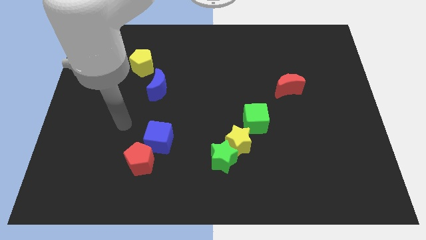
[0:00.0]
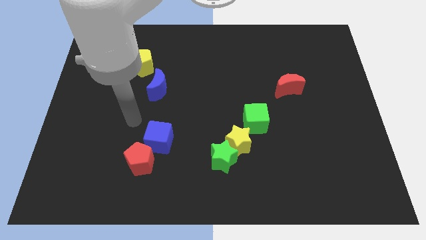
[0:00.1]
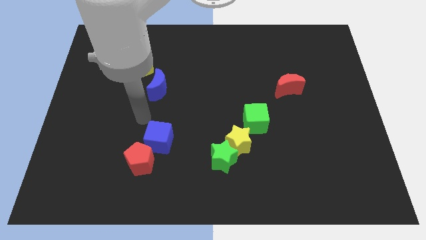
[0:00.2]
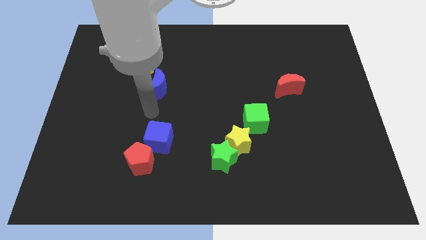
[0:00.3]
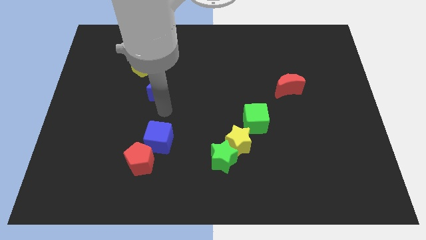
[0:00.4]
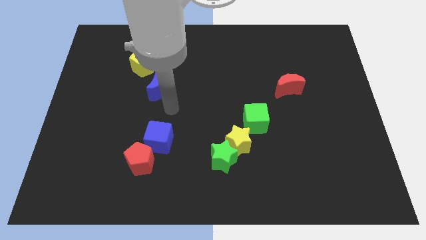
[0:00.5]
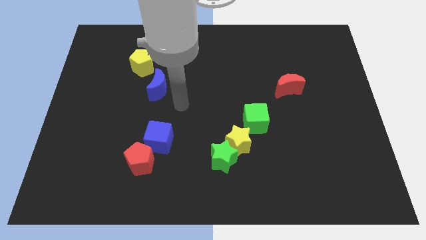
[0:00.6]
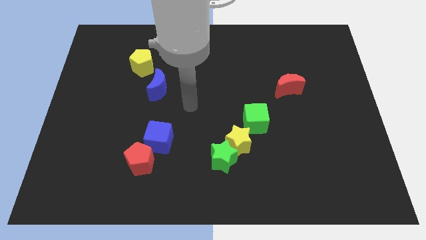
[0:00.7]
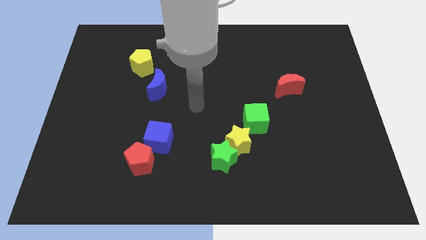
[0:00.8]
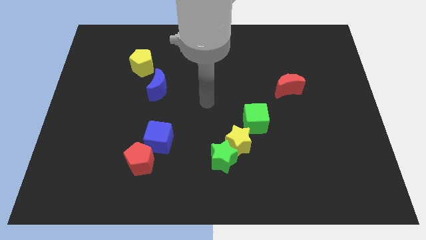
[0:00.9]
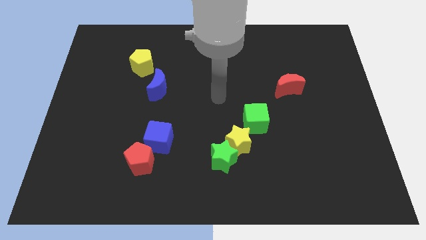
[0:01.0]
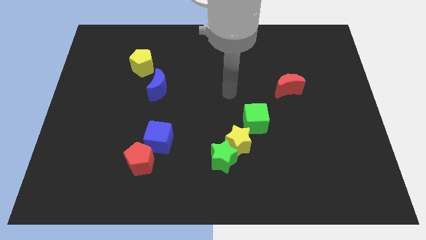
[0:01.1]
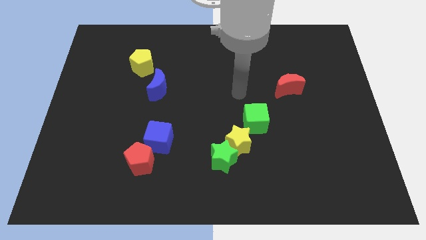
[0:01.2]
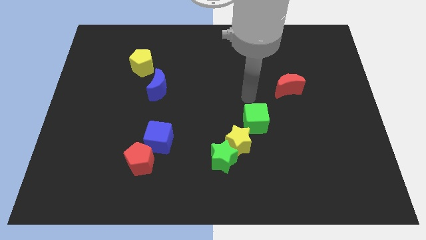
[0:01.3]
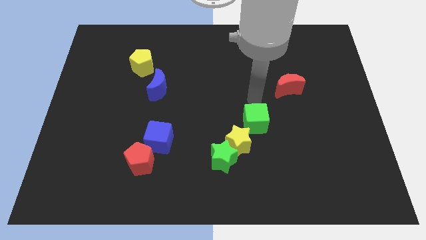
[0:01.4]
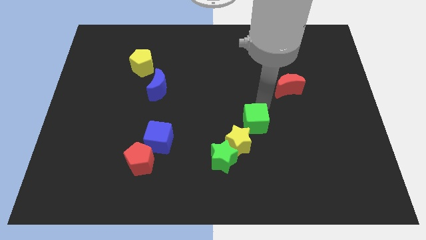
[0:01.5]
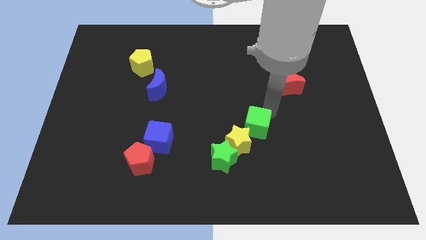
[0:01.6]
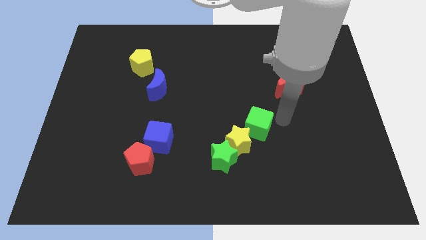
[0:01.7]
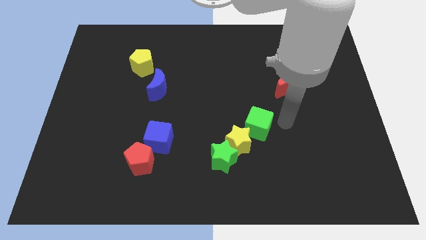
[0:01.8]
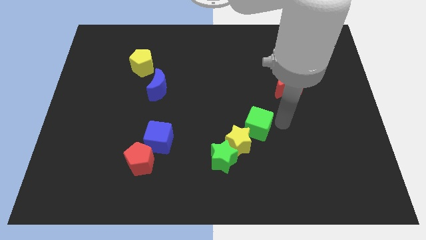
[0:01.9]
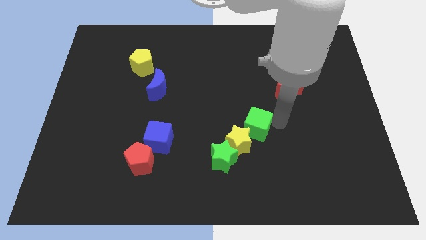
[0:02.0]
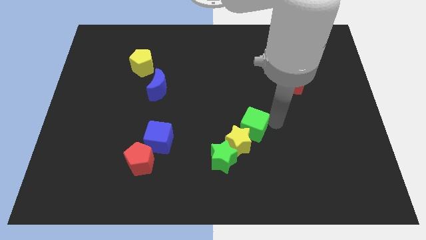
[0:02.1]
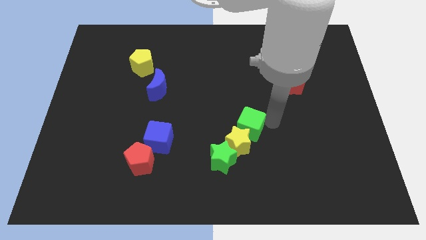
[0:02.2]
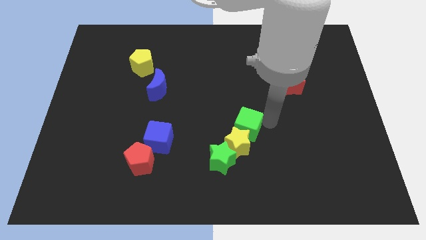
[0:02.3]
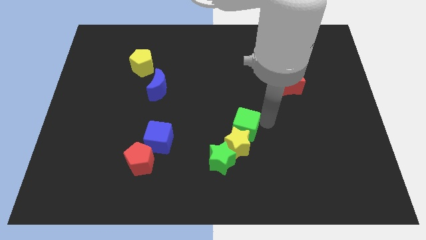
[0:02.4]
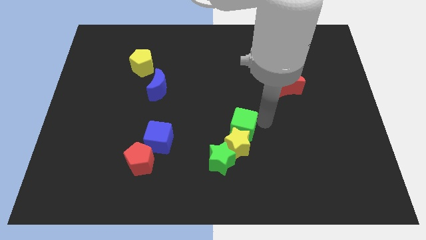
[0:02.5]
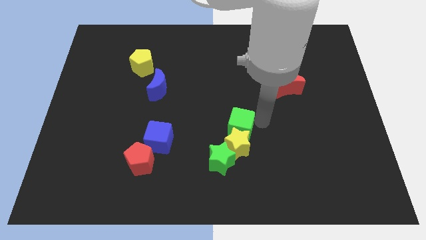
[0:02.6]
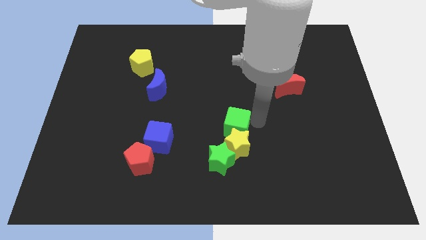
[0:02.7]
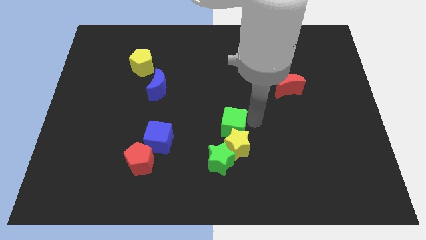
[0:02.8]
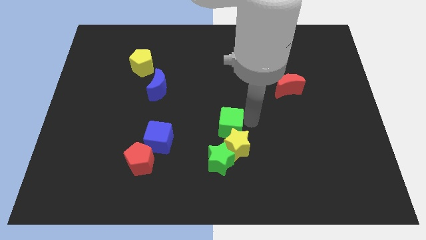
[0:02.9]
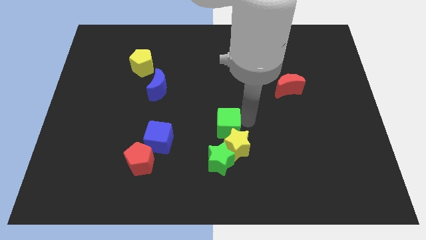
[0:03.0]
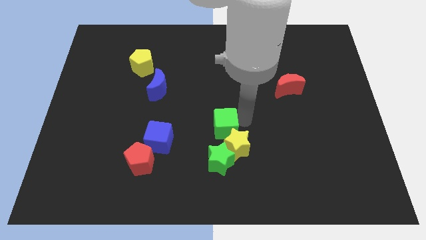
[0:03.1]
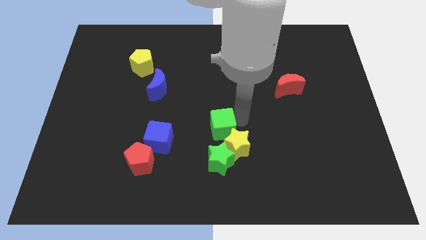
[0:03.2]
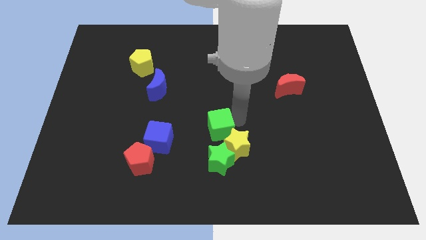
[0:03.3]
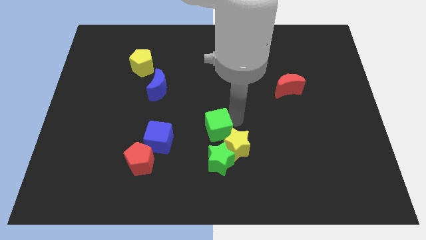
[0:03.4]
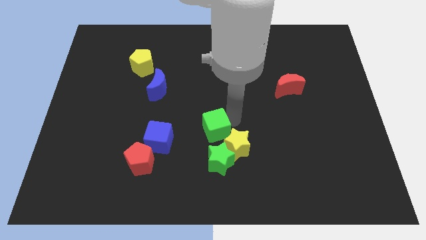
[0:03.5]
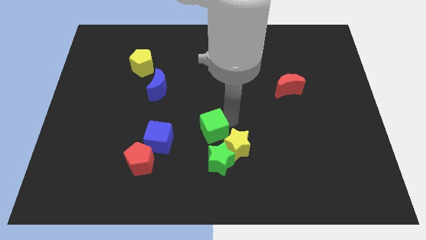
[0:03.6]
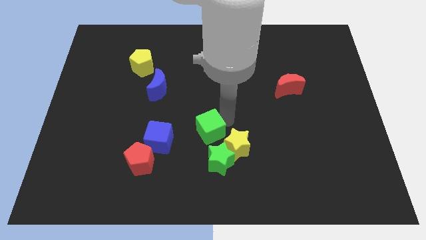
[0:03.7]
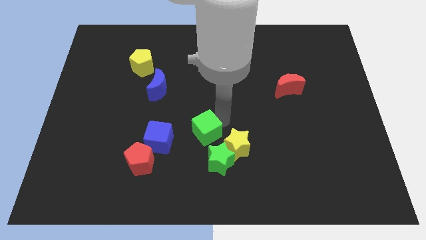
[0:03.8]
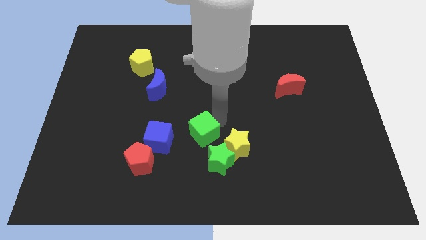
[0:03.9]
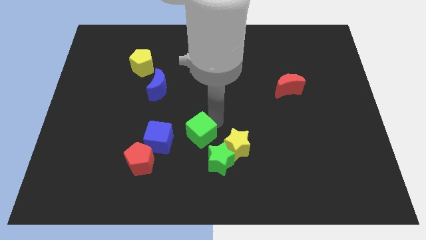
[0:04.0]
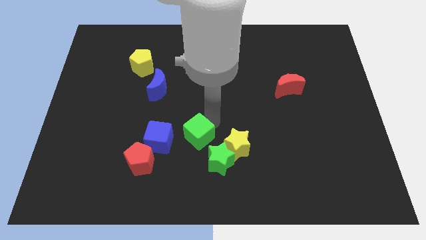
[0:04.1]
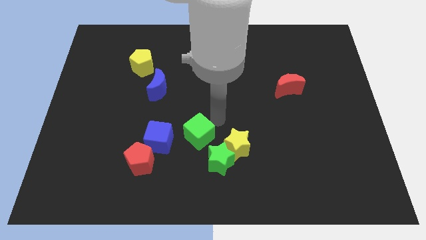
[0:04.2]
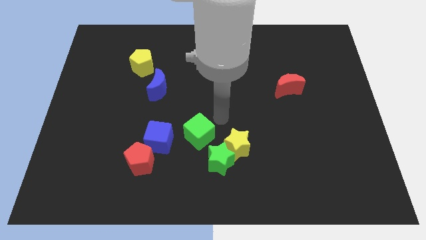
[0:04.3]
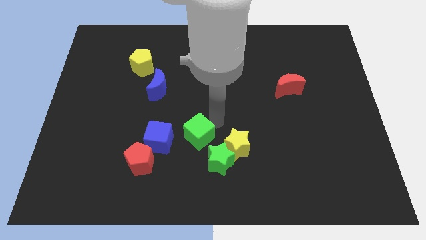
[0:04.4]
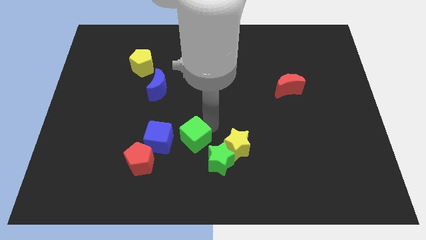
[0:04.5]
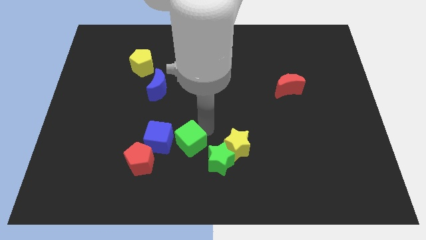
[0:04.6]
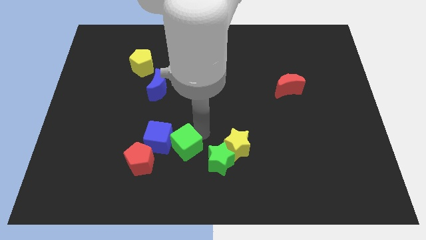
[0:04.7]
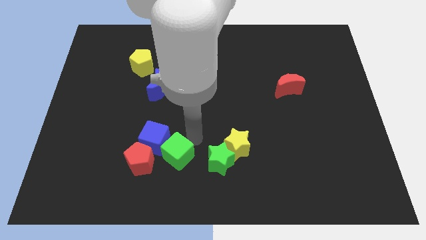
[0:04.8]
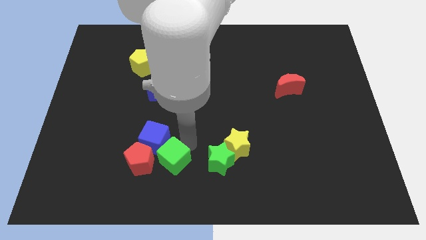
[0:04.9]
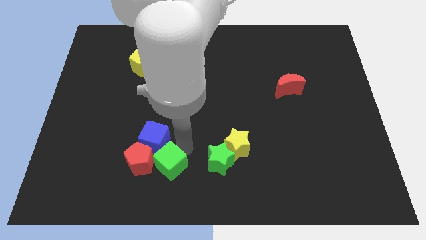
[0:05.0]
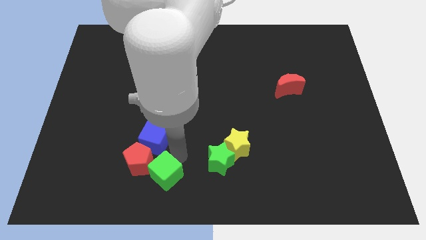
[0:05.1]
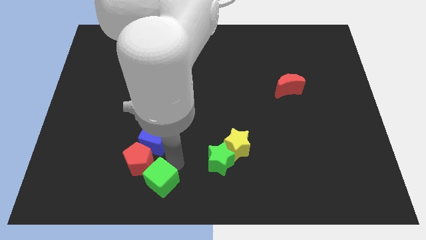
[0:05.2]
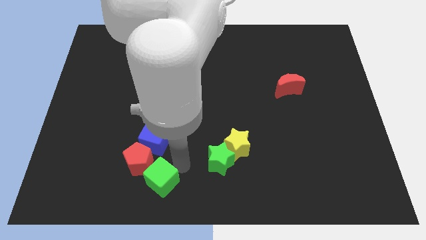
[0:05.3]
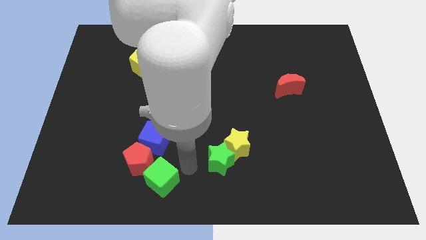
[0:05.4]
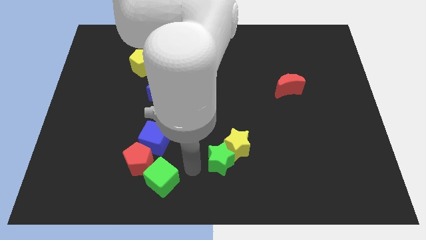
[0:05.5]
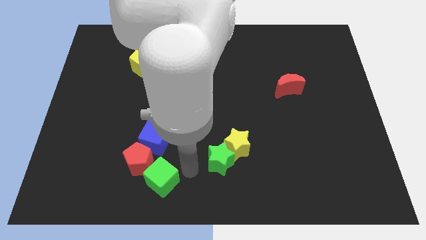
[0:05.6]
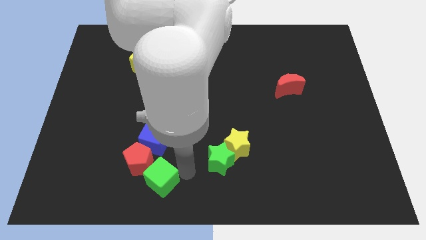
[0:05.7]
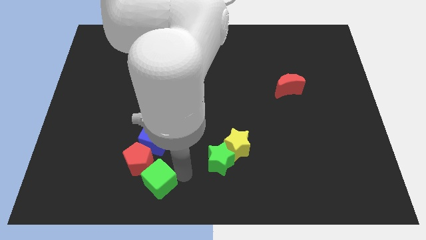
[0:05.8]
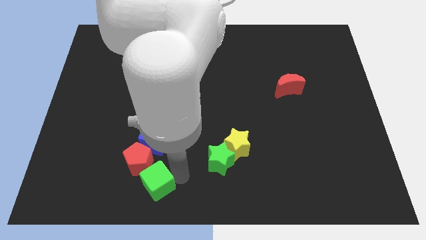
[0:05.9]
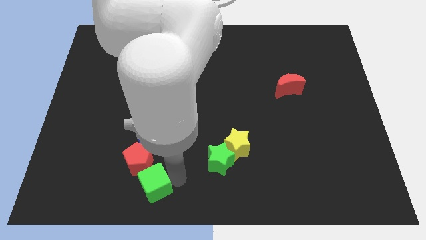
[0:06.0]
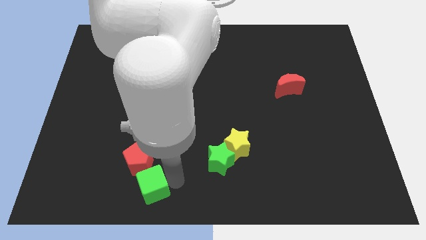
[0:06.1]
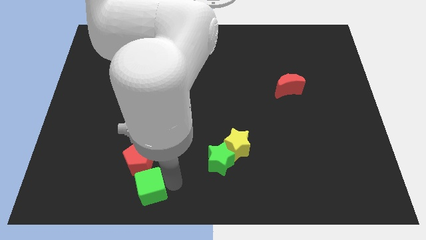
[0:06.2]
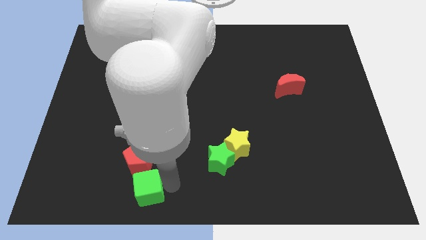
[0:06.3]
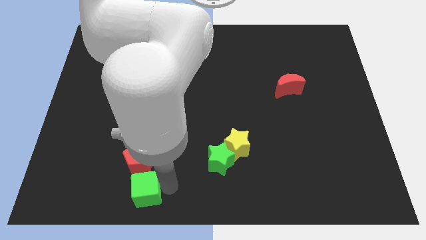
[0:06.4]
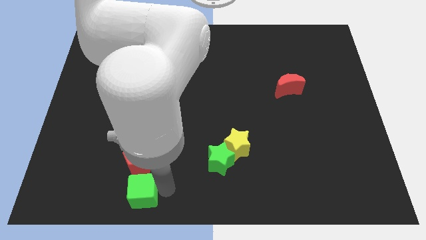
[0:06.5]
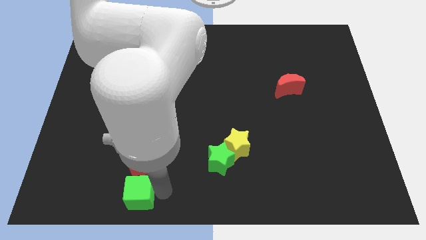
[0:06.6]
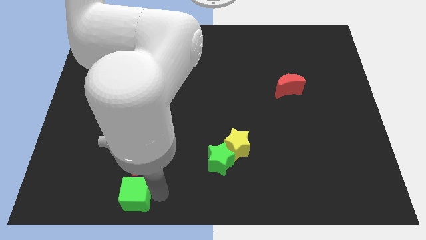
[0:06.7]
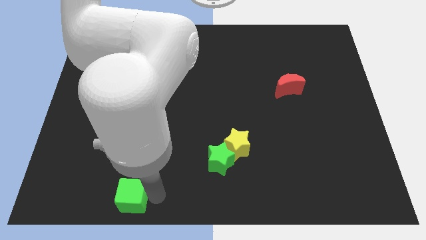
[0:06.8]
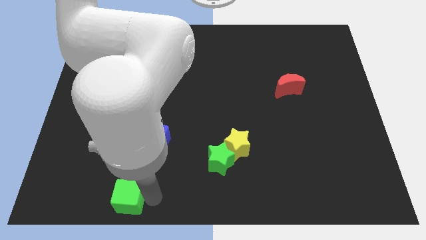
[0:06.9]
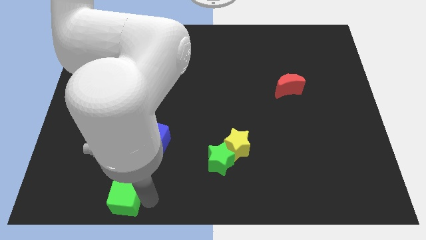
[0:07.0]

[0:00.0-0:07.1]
put the green cube diagonally down and to the left of the red pentagon
